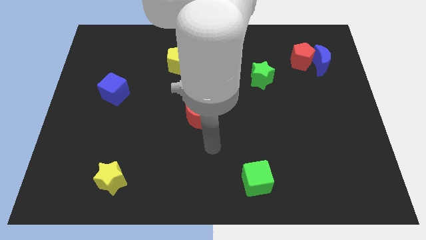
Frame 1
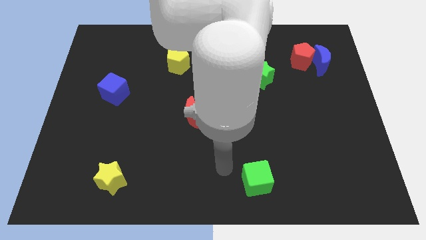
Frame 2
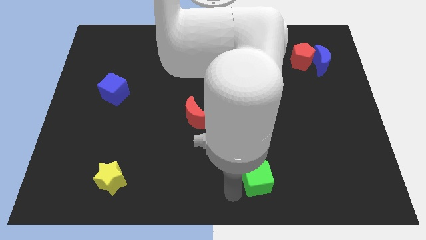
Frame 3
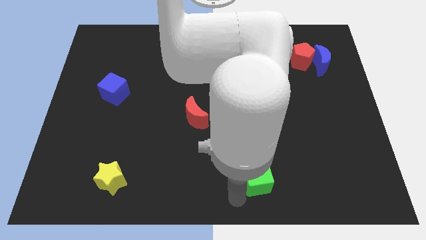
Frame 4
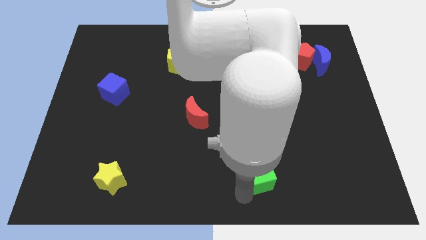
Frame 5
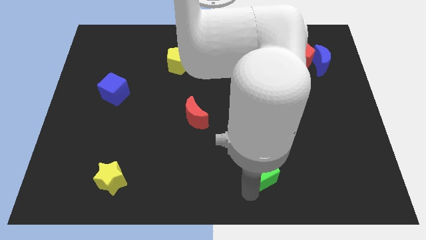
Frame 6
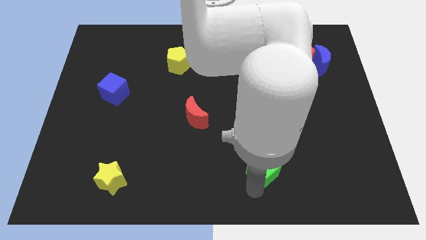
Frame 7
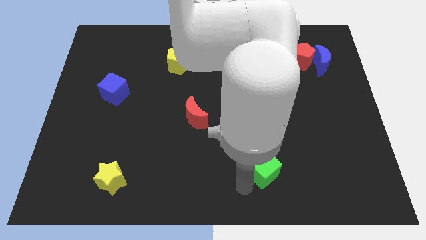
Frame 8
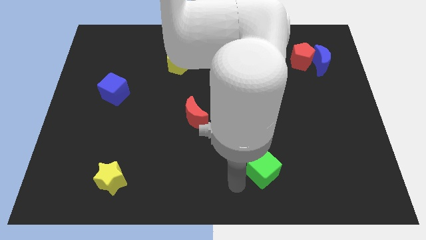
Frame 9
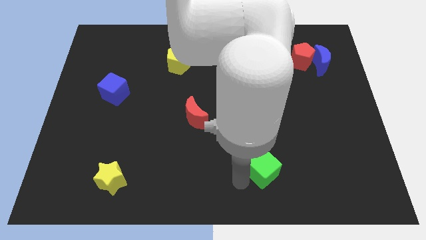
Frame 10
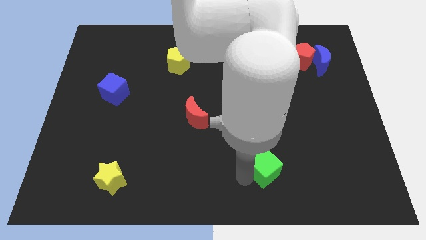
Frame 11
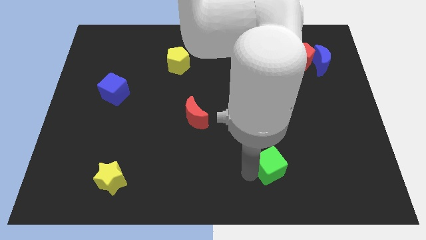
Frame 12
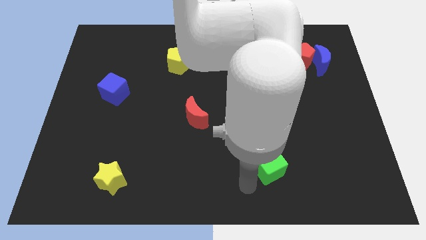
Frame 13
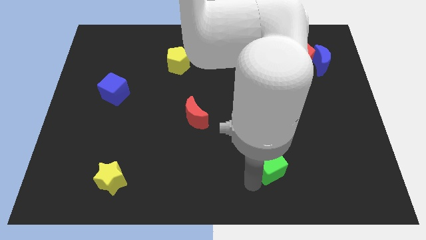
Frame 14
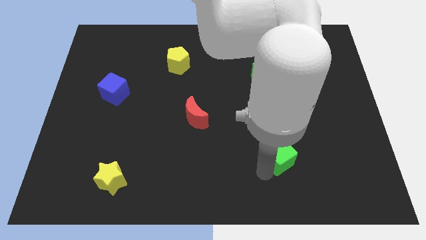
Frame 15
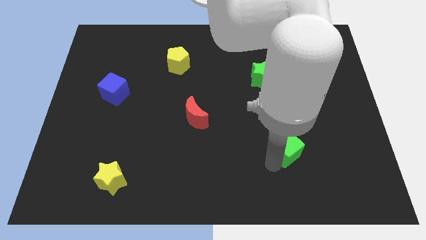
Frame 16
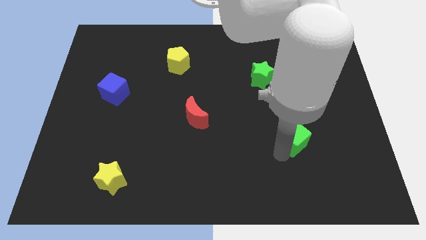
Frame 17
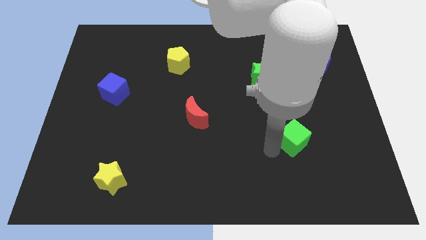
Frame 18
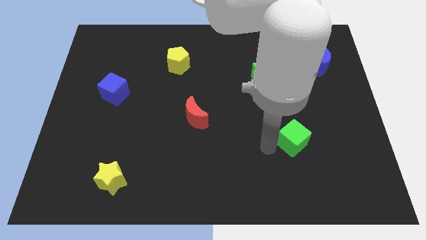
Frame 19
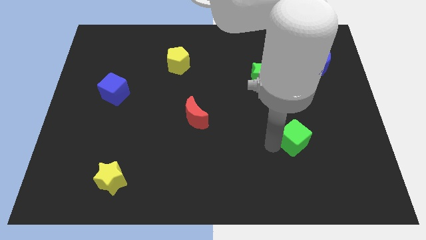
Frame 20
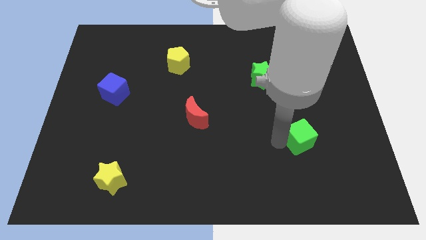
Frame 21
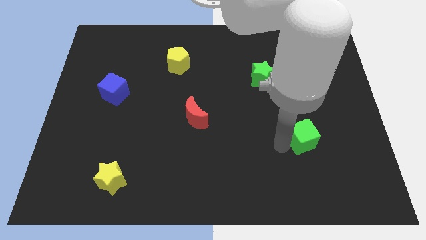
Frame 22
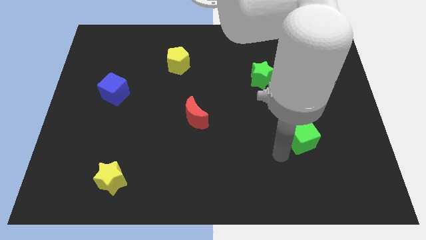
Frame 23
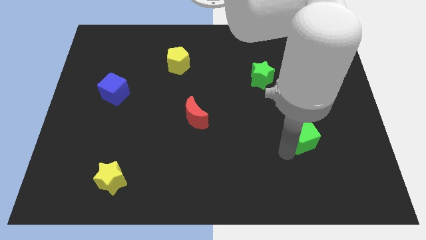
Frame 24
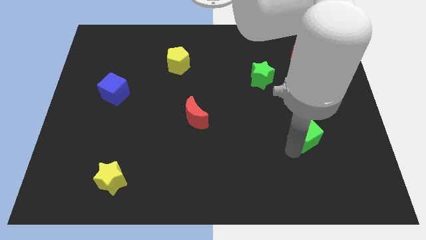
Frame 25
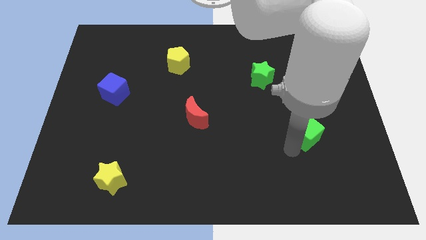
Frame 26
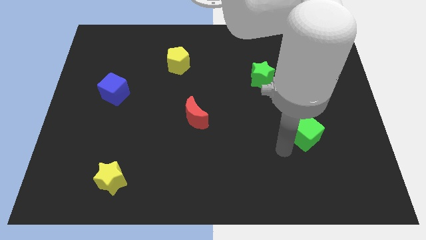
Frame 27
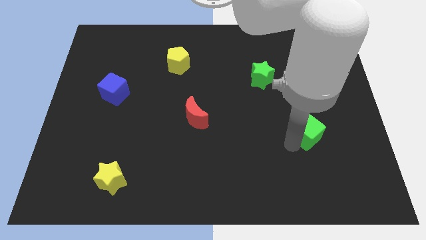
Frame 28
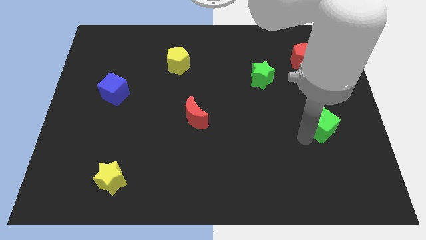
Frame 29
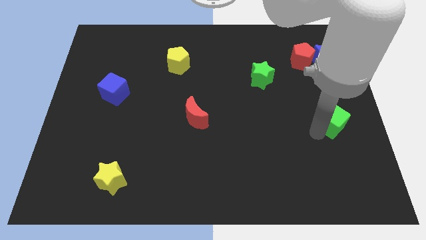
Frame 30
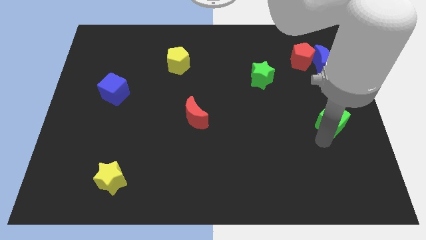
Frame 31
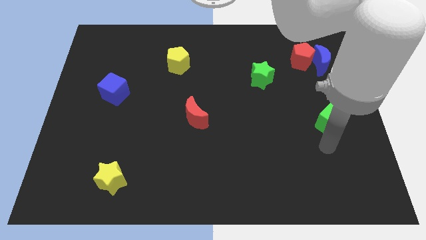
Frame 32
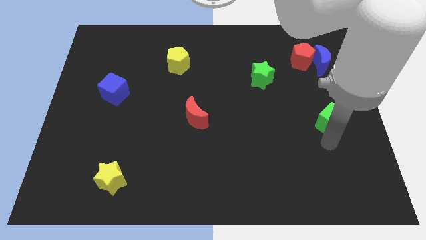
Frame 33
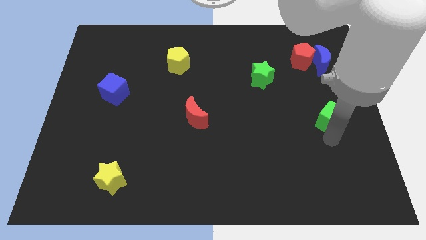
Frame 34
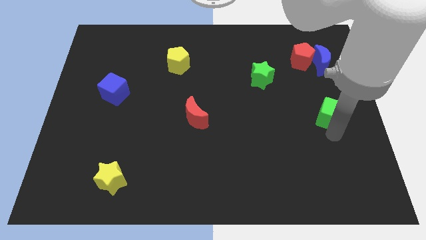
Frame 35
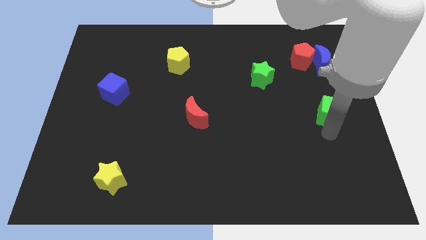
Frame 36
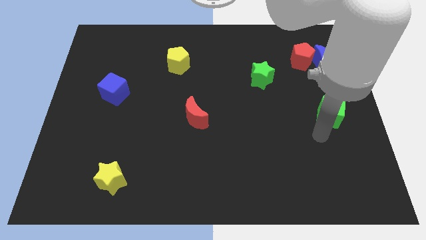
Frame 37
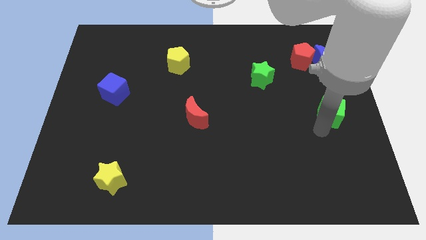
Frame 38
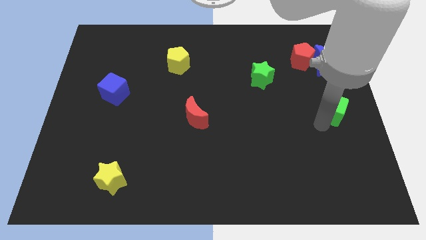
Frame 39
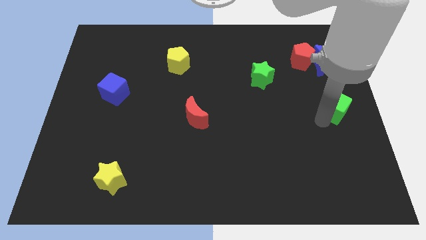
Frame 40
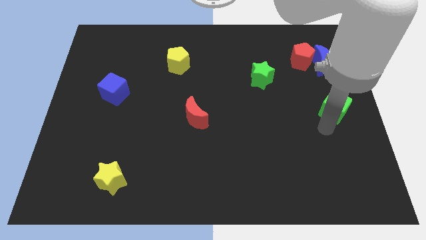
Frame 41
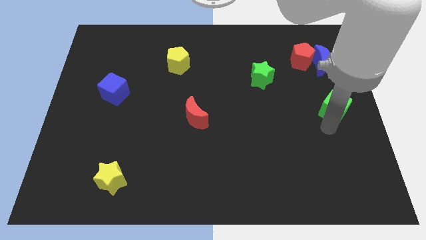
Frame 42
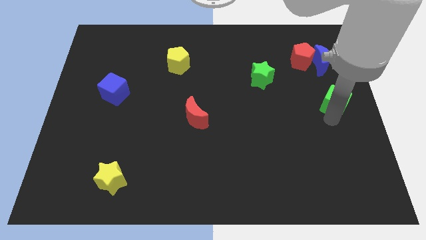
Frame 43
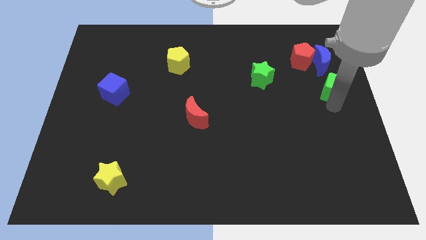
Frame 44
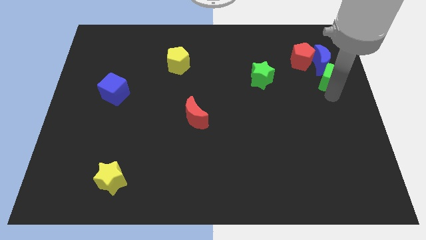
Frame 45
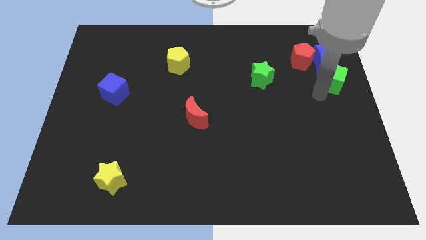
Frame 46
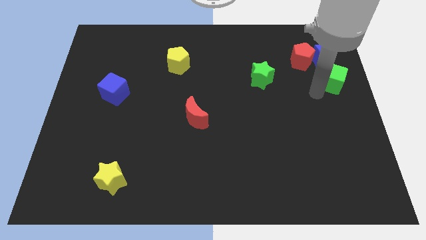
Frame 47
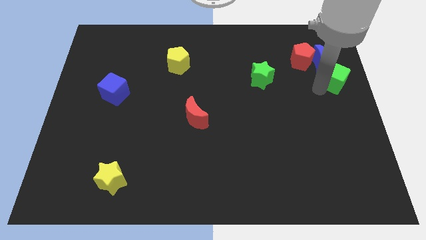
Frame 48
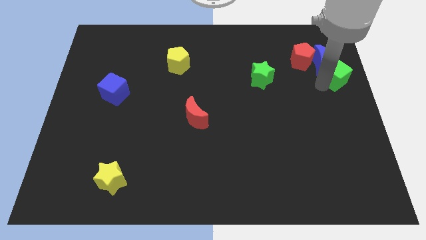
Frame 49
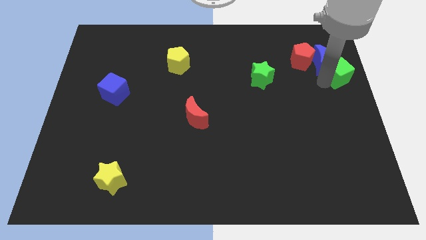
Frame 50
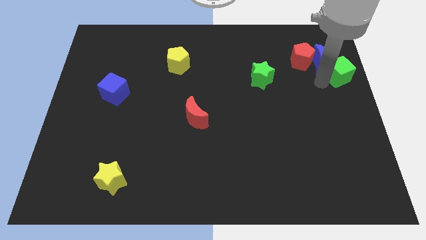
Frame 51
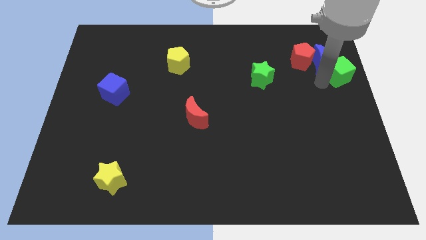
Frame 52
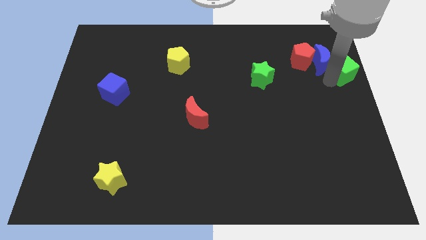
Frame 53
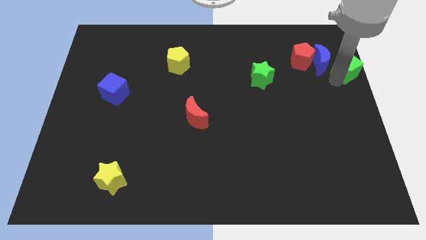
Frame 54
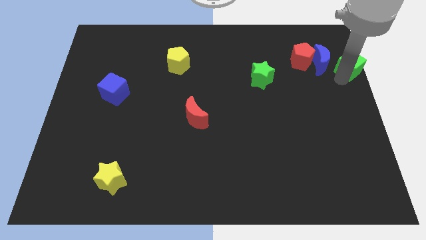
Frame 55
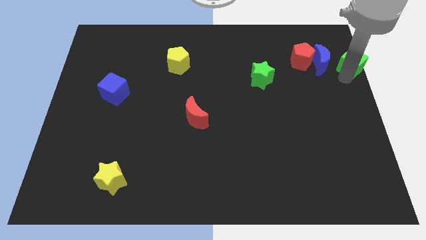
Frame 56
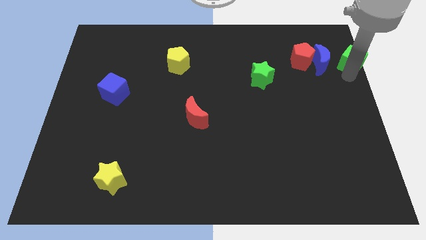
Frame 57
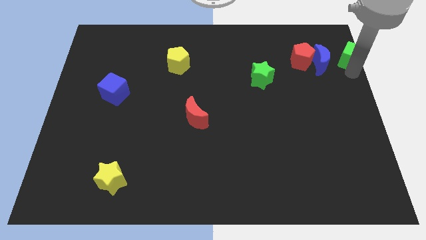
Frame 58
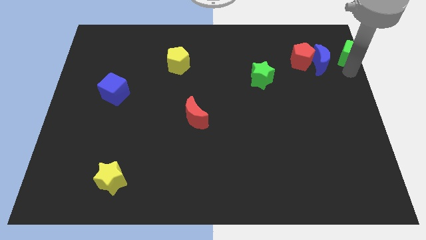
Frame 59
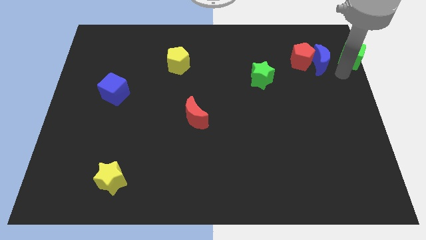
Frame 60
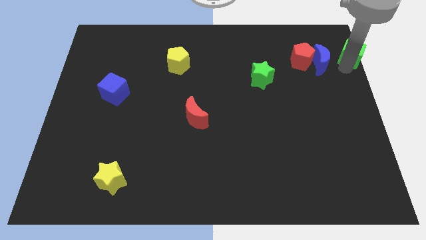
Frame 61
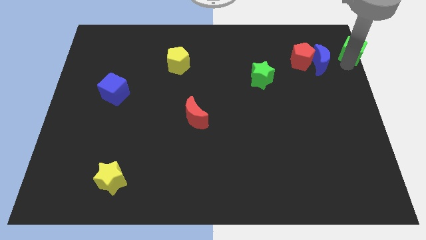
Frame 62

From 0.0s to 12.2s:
push the green cube to the top right of the board

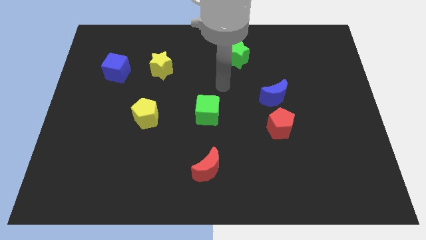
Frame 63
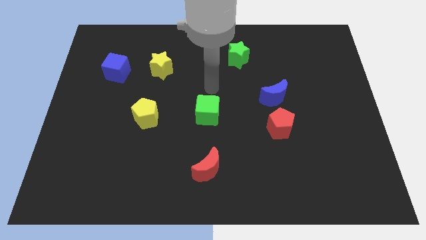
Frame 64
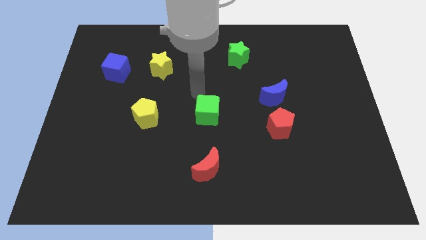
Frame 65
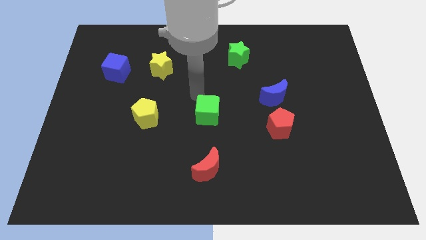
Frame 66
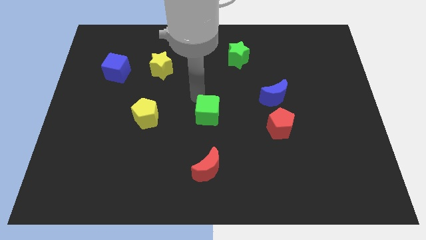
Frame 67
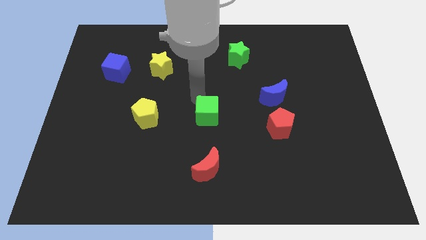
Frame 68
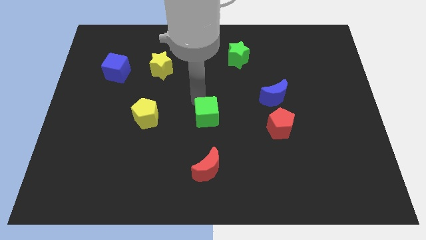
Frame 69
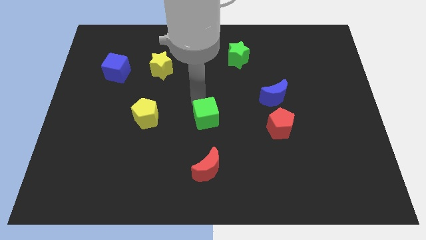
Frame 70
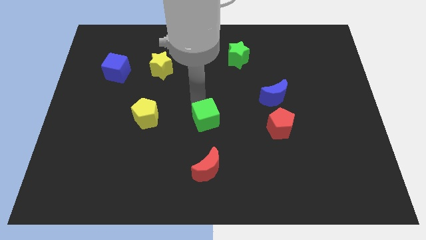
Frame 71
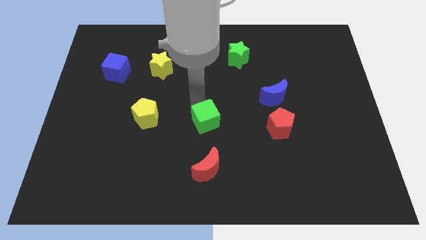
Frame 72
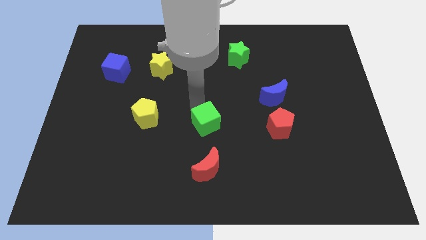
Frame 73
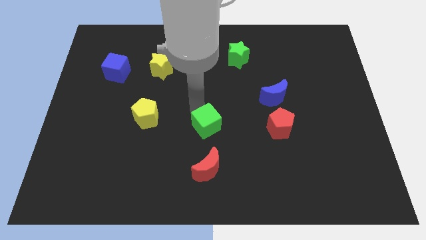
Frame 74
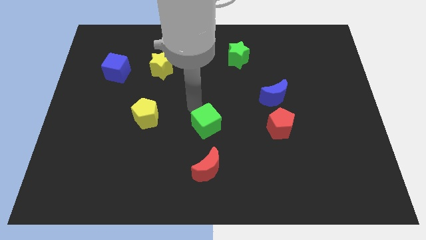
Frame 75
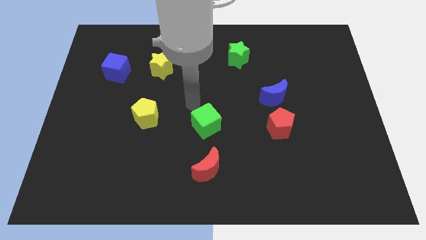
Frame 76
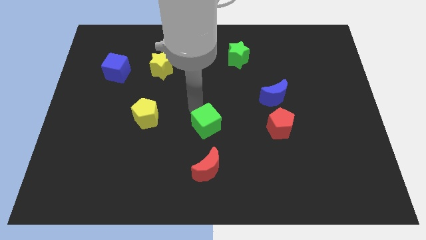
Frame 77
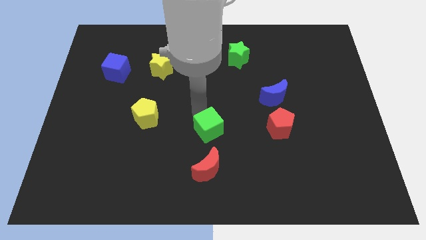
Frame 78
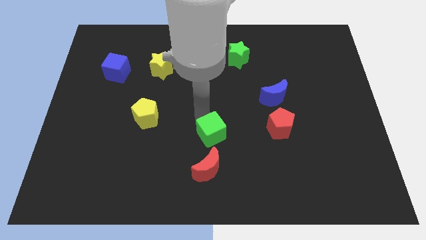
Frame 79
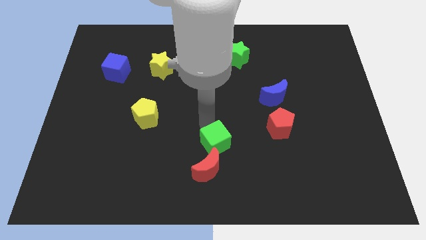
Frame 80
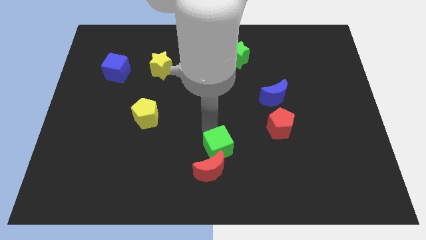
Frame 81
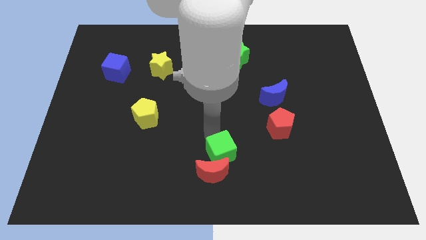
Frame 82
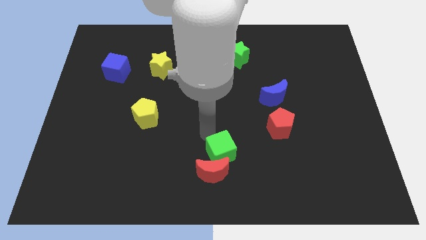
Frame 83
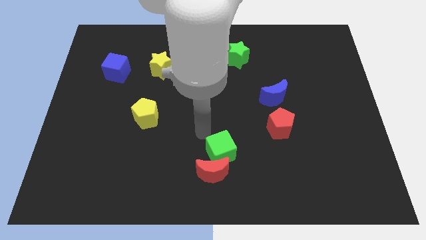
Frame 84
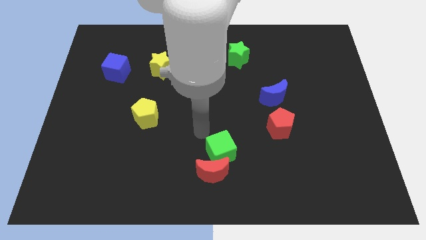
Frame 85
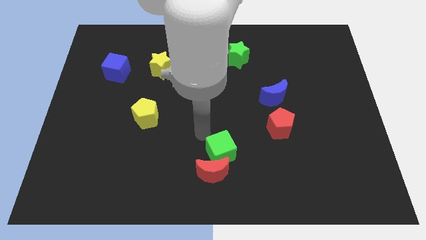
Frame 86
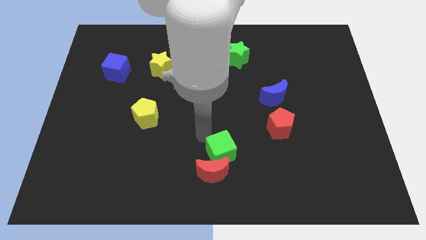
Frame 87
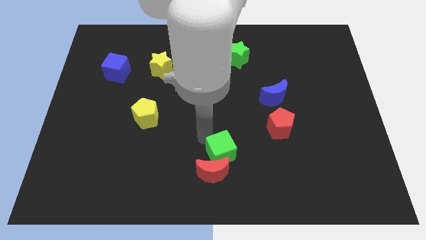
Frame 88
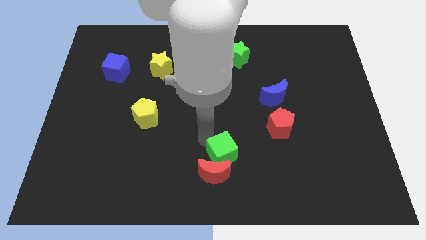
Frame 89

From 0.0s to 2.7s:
slide the green cube to the bottom side
